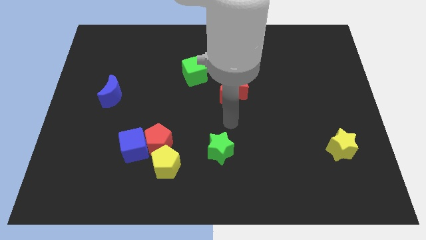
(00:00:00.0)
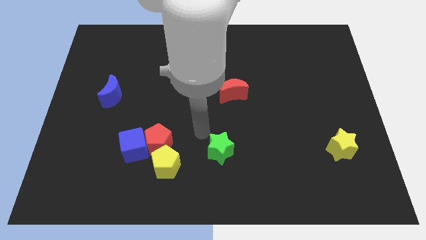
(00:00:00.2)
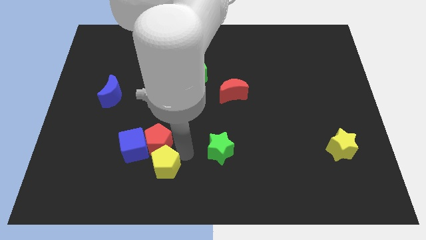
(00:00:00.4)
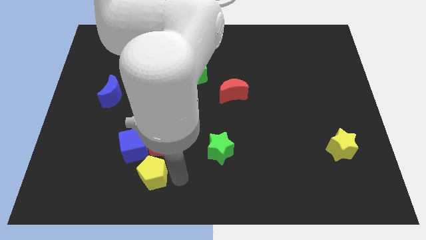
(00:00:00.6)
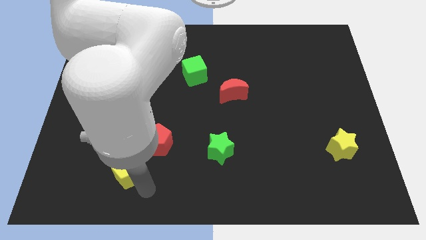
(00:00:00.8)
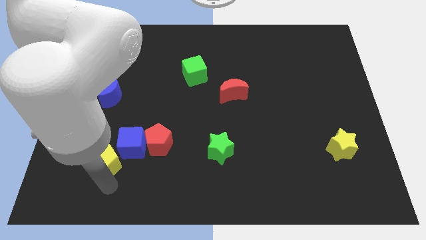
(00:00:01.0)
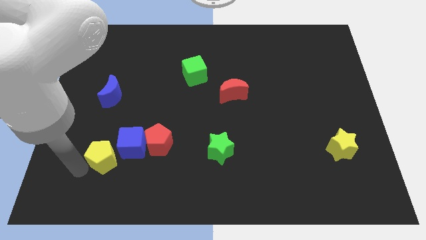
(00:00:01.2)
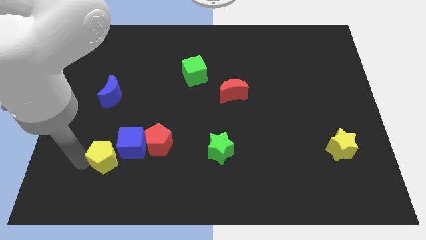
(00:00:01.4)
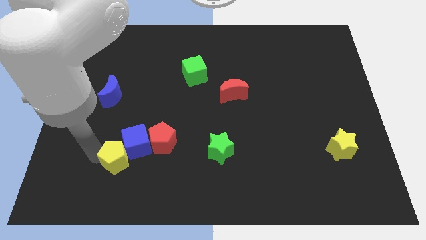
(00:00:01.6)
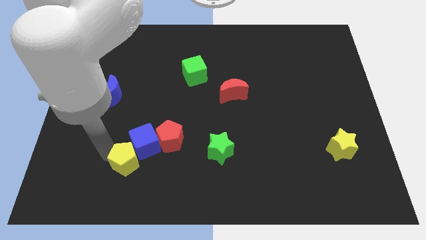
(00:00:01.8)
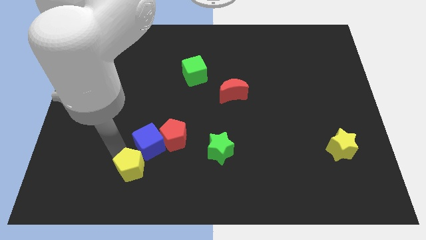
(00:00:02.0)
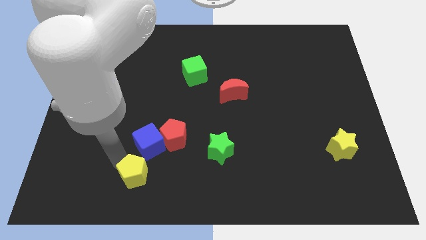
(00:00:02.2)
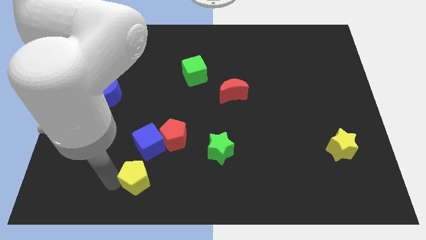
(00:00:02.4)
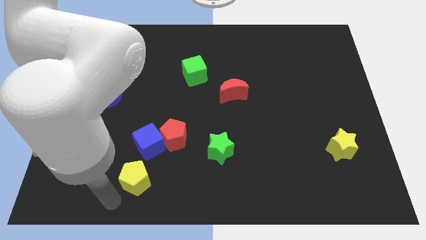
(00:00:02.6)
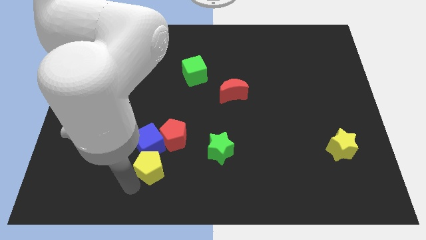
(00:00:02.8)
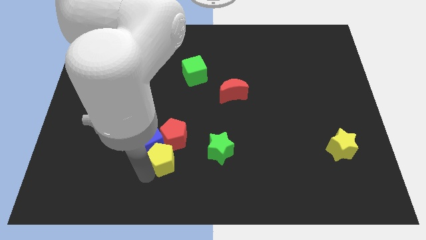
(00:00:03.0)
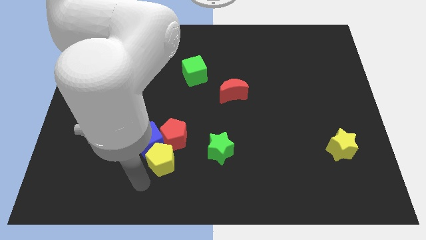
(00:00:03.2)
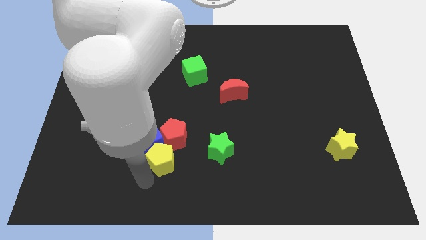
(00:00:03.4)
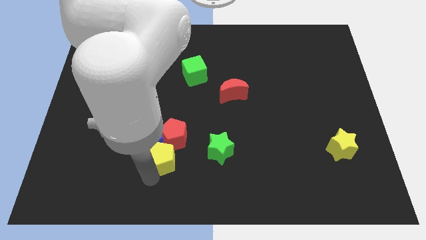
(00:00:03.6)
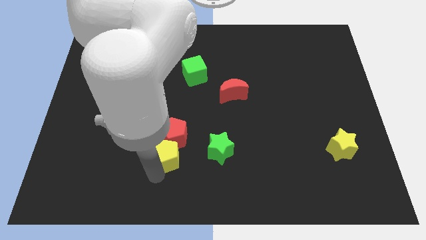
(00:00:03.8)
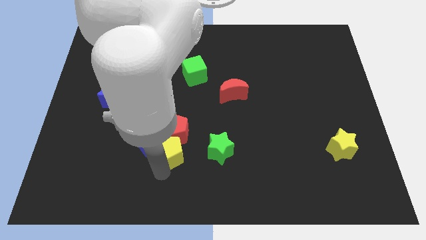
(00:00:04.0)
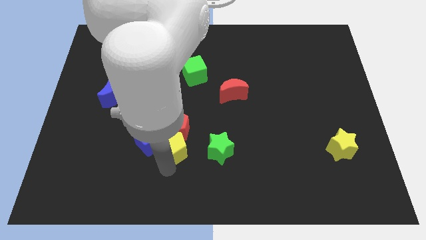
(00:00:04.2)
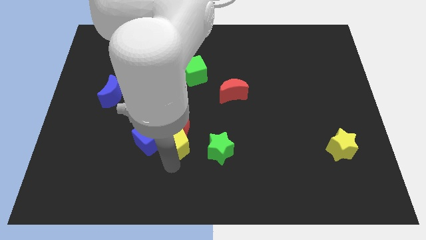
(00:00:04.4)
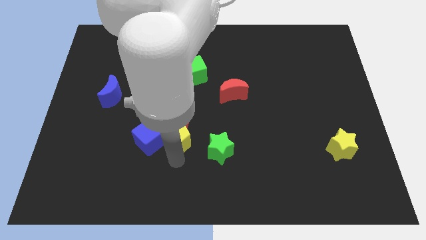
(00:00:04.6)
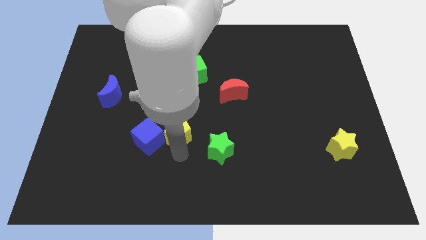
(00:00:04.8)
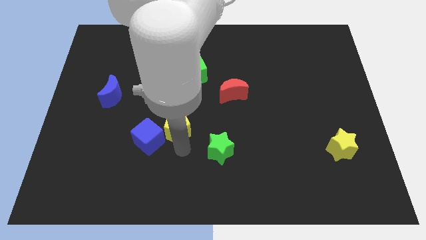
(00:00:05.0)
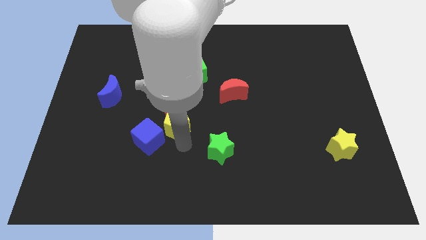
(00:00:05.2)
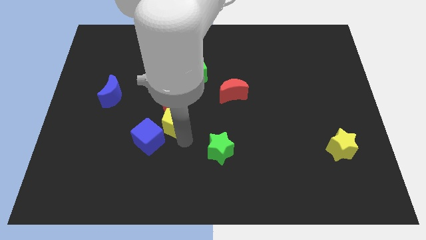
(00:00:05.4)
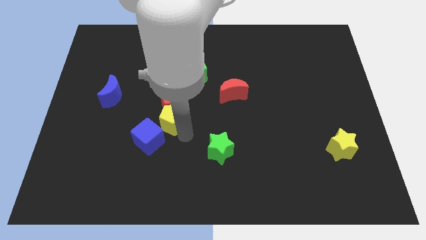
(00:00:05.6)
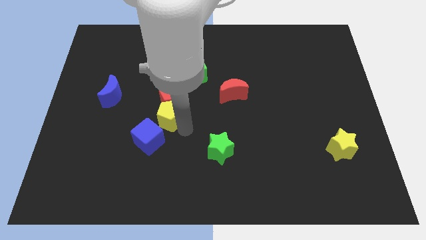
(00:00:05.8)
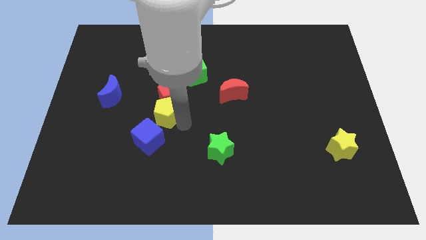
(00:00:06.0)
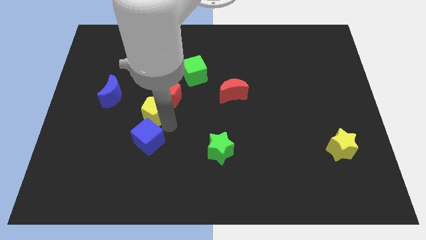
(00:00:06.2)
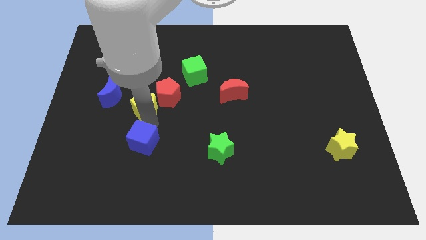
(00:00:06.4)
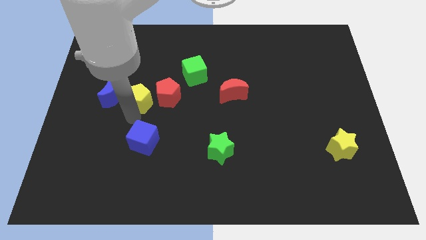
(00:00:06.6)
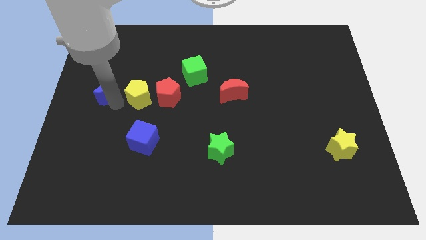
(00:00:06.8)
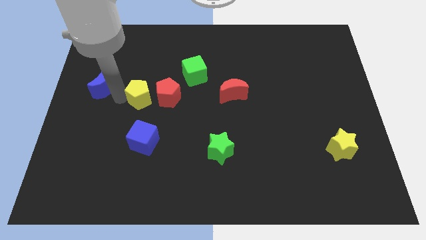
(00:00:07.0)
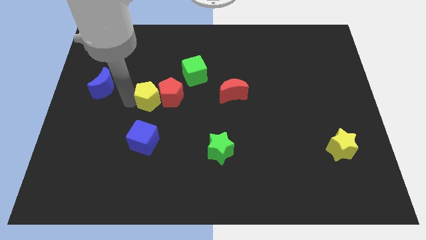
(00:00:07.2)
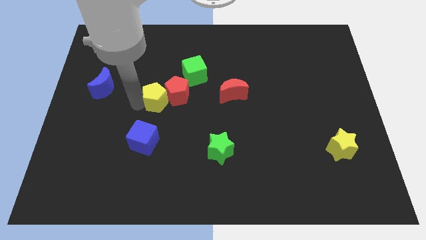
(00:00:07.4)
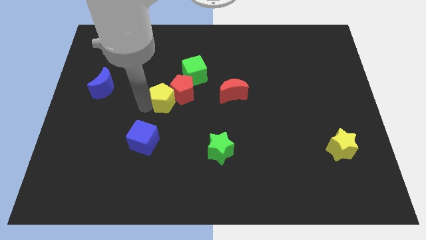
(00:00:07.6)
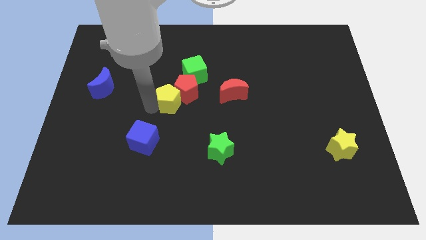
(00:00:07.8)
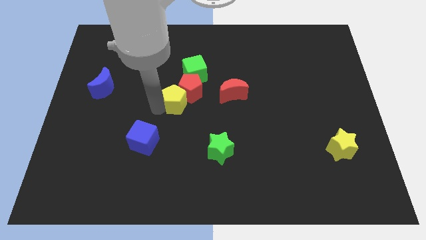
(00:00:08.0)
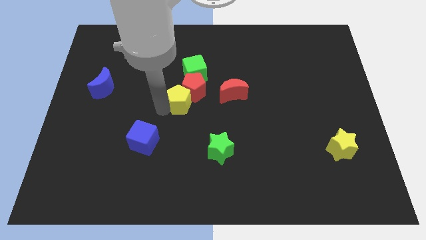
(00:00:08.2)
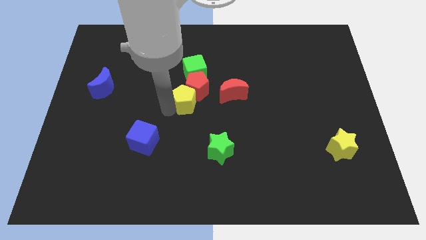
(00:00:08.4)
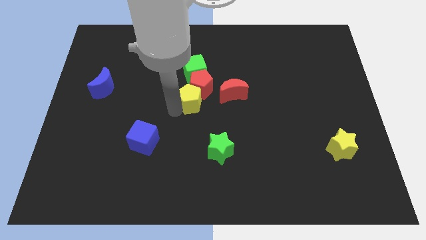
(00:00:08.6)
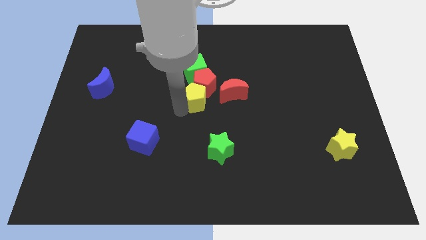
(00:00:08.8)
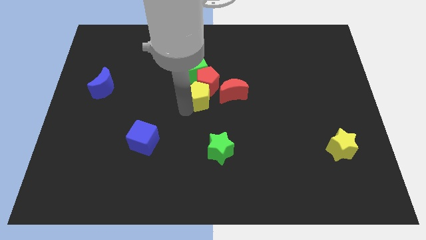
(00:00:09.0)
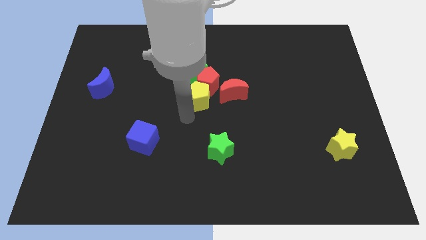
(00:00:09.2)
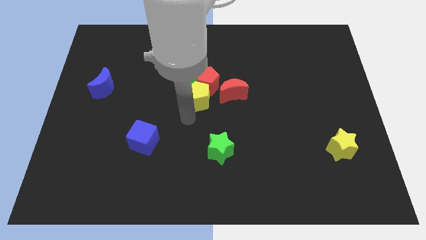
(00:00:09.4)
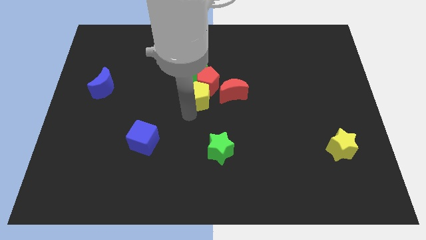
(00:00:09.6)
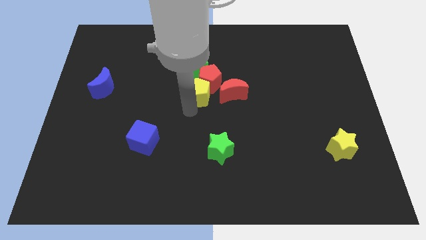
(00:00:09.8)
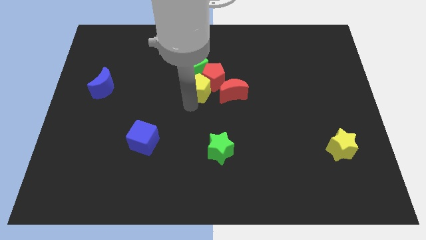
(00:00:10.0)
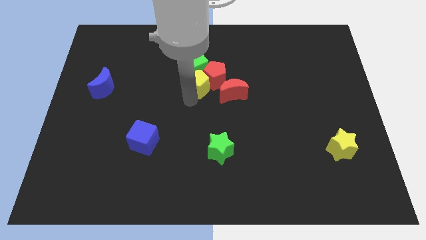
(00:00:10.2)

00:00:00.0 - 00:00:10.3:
slide the yellow pentagon to the top left of the red moon

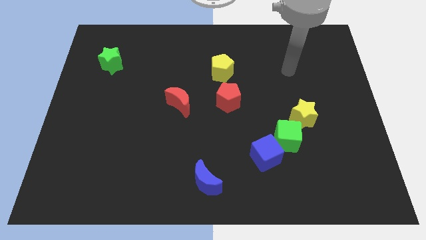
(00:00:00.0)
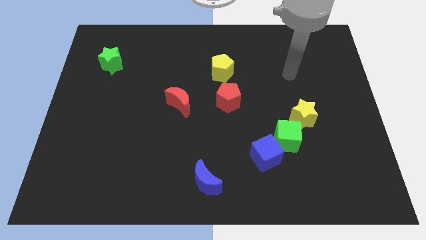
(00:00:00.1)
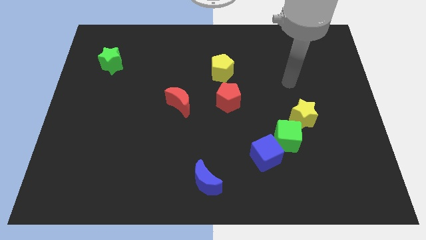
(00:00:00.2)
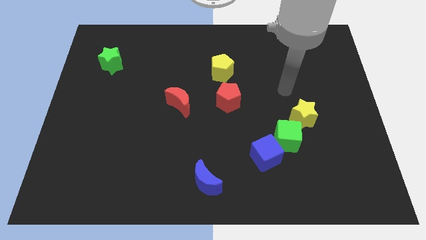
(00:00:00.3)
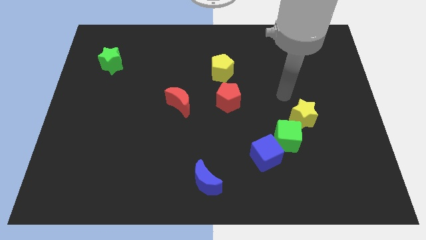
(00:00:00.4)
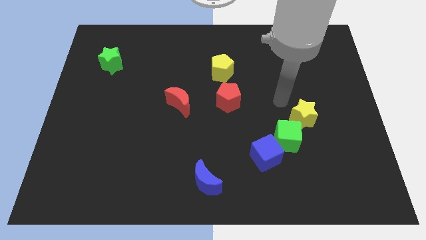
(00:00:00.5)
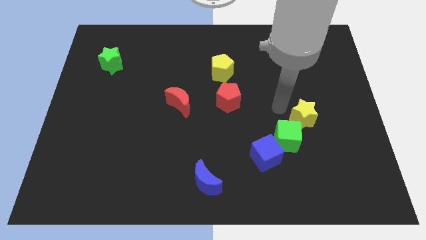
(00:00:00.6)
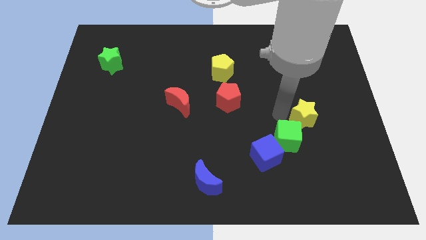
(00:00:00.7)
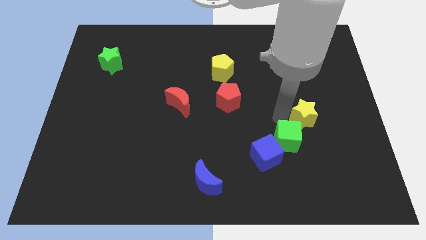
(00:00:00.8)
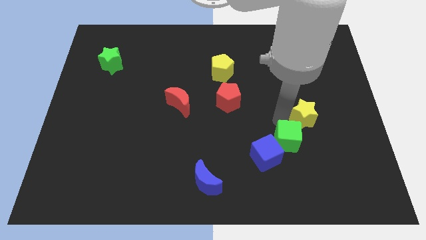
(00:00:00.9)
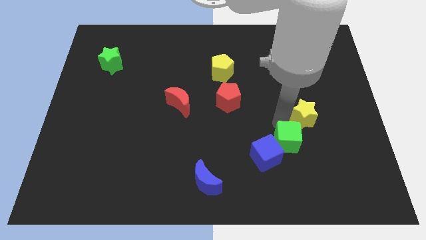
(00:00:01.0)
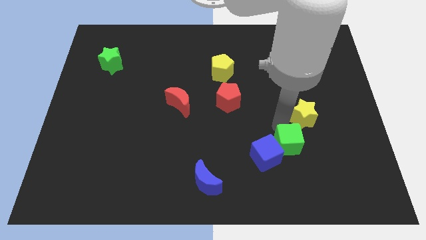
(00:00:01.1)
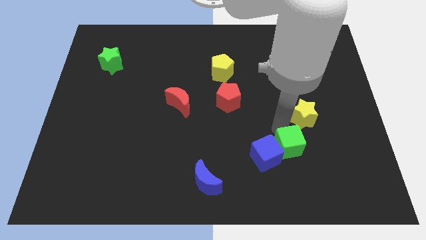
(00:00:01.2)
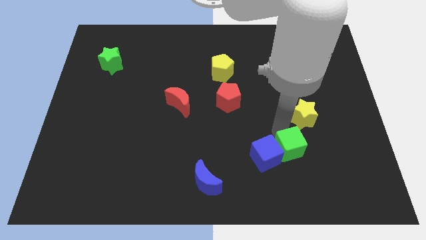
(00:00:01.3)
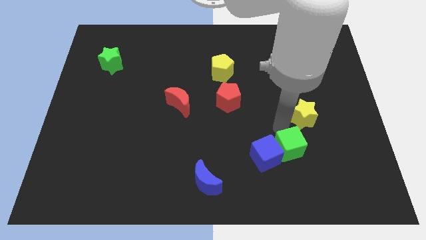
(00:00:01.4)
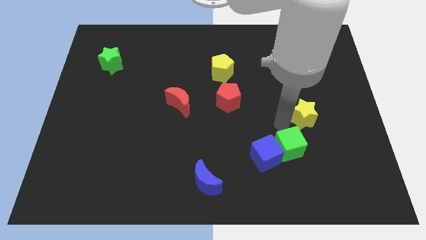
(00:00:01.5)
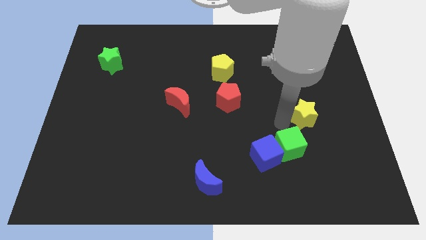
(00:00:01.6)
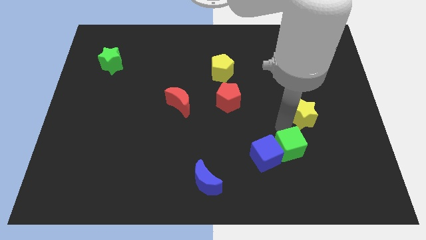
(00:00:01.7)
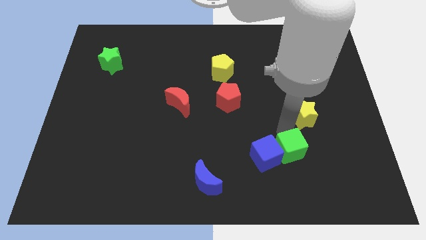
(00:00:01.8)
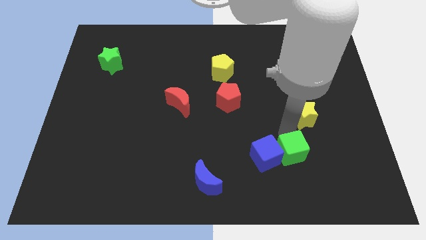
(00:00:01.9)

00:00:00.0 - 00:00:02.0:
move the green cube diagonally down and to the right of the blue cube
